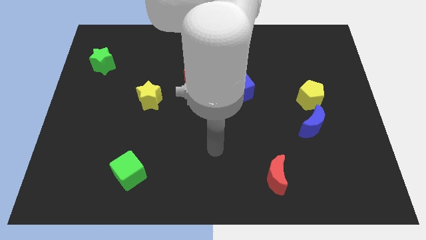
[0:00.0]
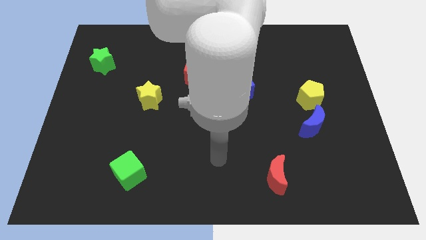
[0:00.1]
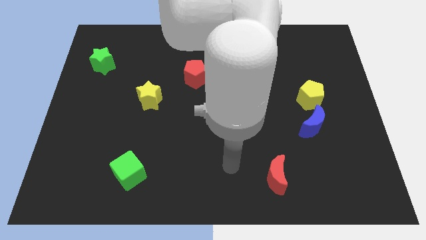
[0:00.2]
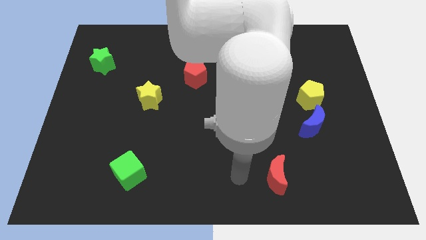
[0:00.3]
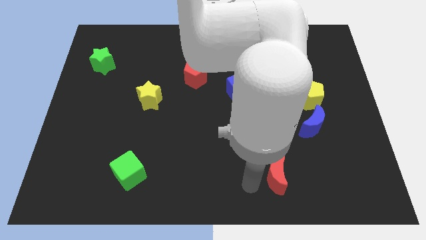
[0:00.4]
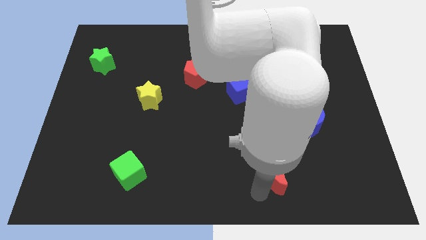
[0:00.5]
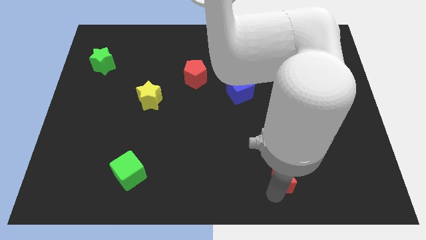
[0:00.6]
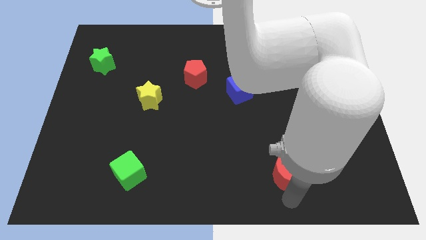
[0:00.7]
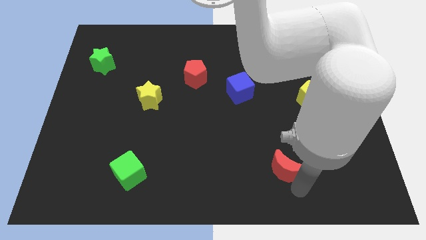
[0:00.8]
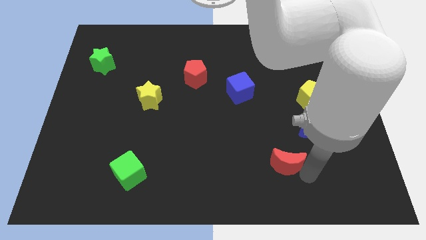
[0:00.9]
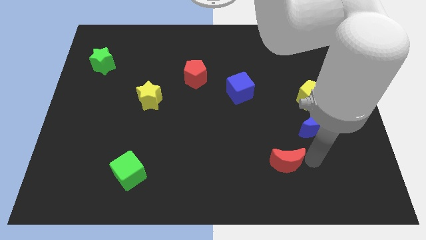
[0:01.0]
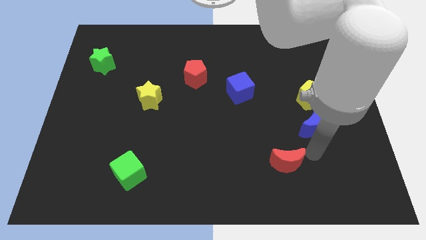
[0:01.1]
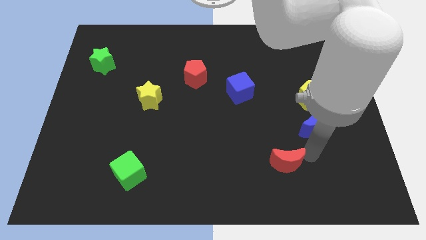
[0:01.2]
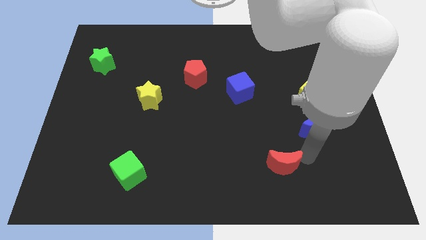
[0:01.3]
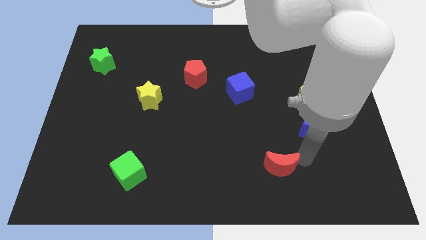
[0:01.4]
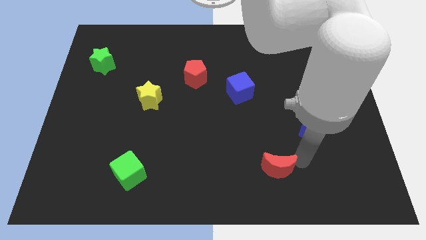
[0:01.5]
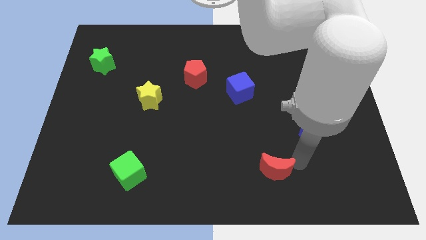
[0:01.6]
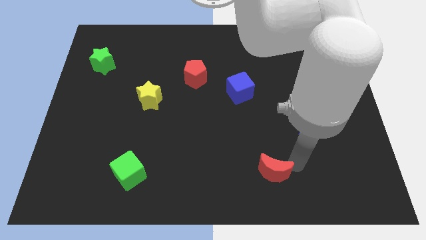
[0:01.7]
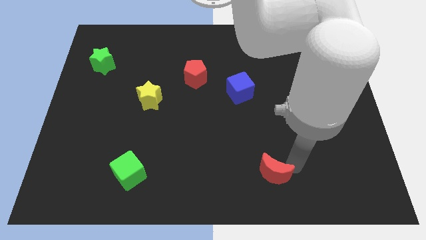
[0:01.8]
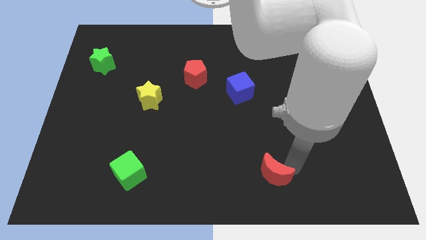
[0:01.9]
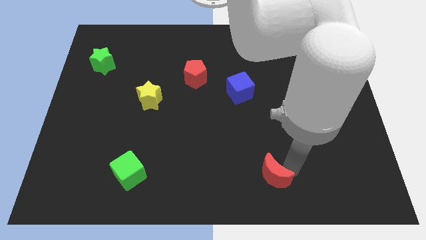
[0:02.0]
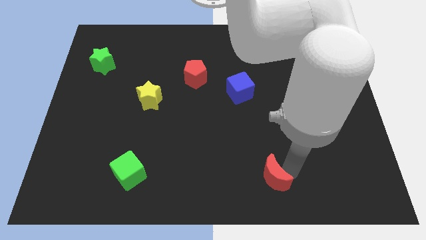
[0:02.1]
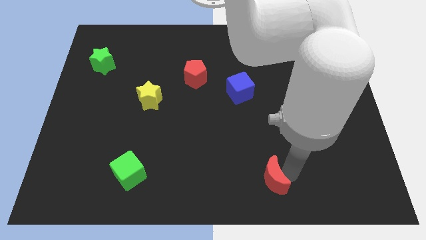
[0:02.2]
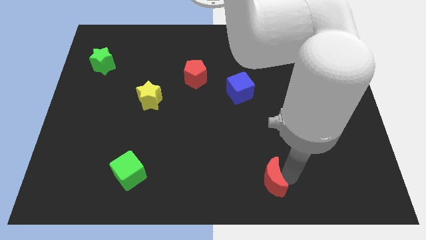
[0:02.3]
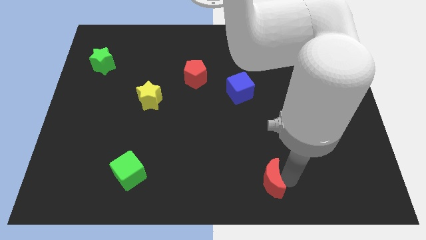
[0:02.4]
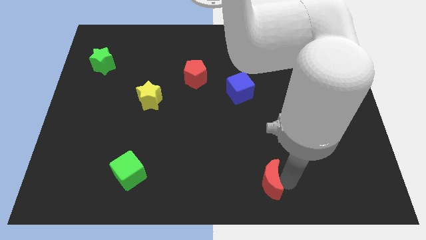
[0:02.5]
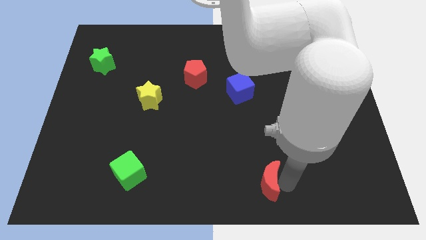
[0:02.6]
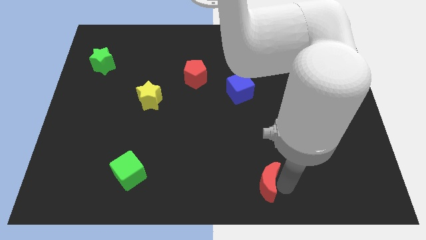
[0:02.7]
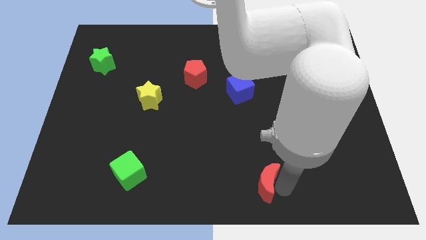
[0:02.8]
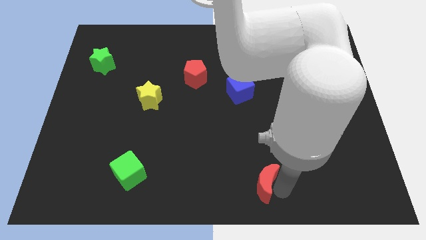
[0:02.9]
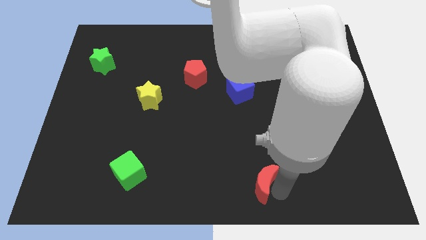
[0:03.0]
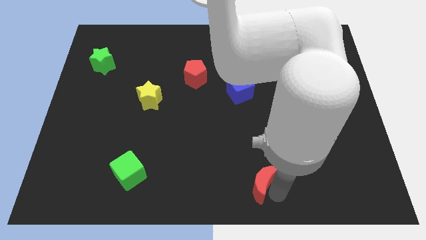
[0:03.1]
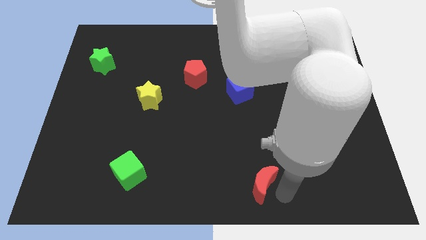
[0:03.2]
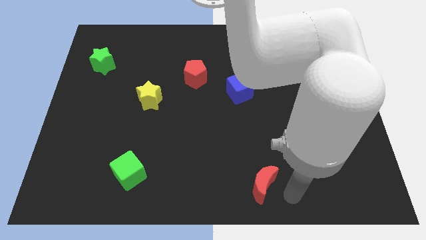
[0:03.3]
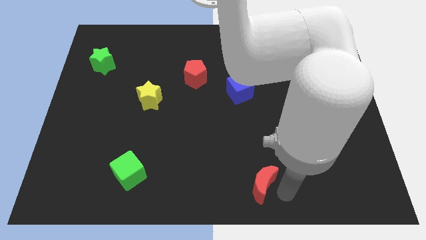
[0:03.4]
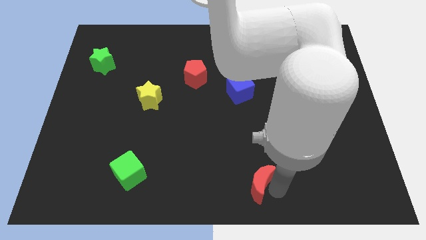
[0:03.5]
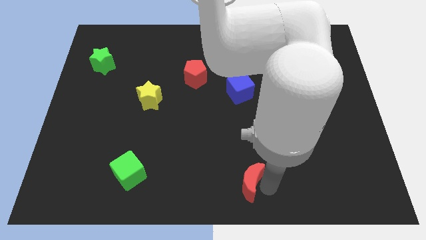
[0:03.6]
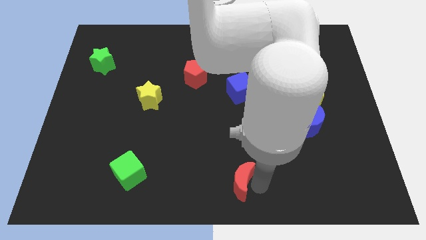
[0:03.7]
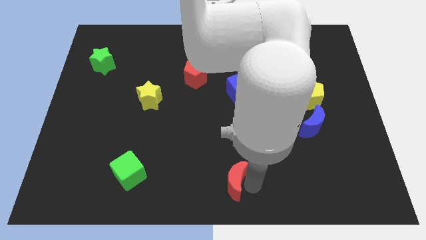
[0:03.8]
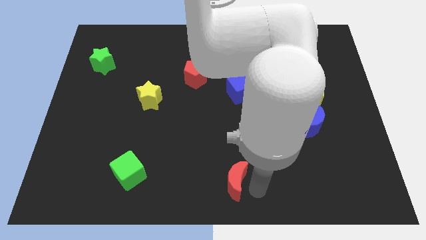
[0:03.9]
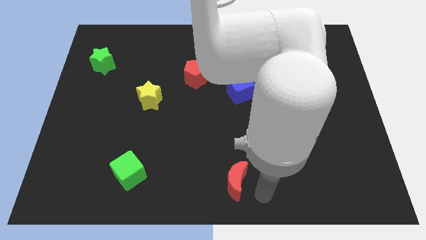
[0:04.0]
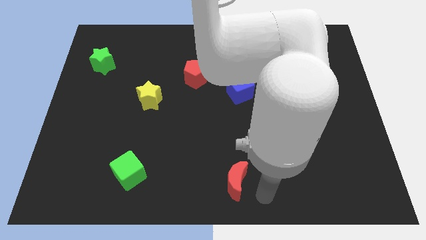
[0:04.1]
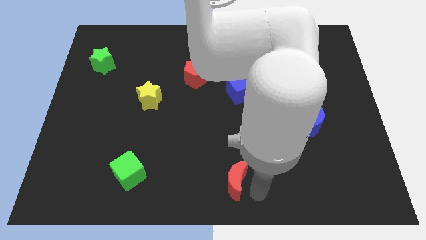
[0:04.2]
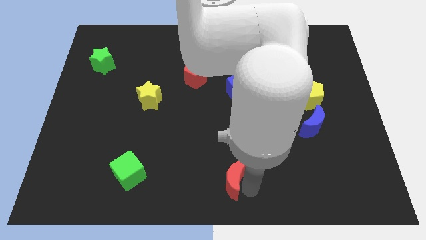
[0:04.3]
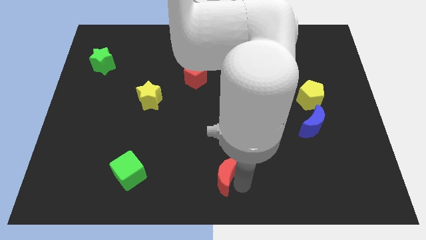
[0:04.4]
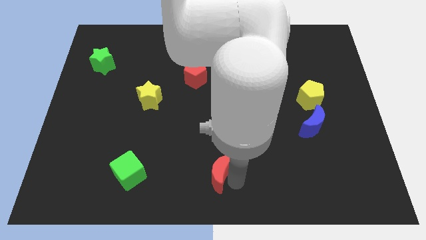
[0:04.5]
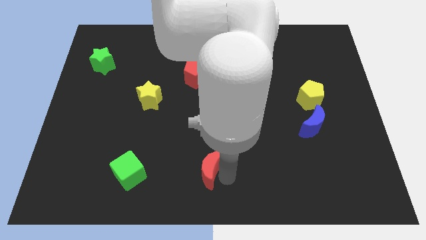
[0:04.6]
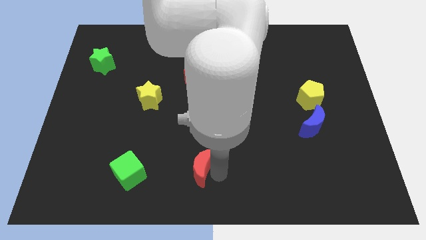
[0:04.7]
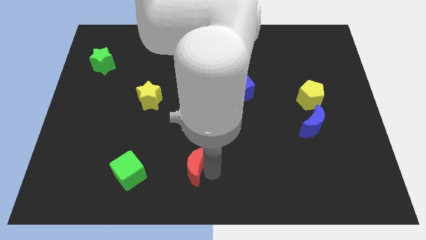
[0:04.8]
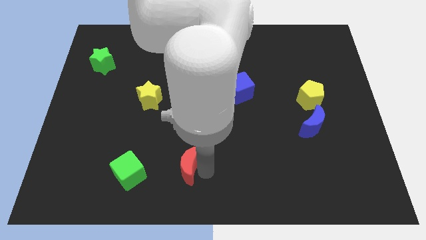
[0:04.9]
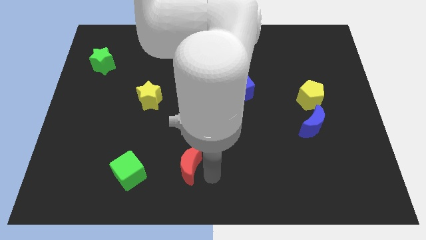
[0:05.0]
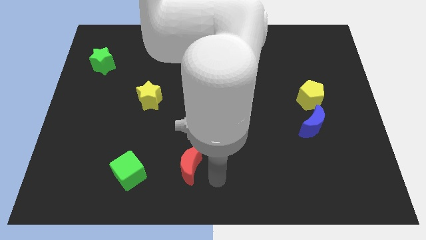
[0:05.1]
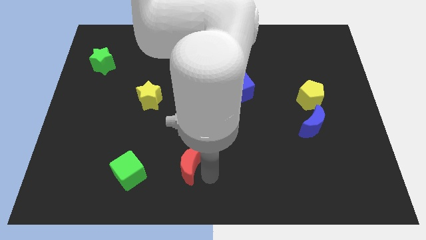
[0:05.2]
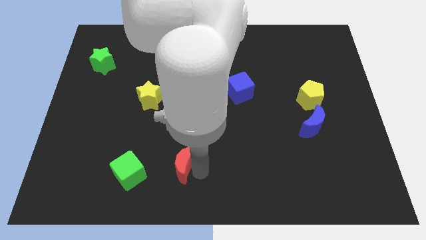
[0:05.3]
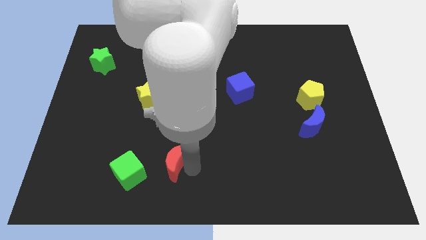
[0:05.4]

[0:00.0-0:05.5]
put the red moon diagonally up and to the right of the green cube
